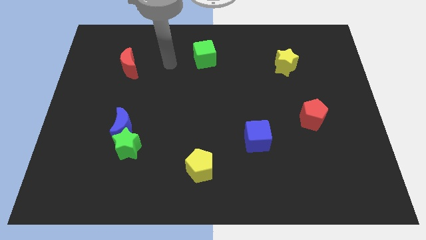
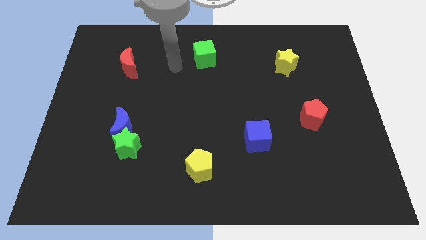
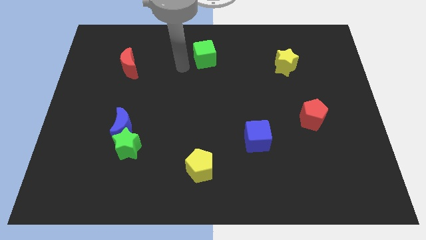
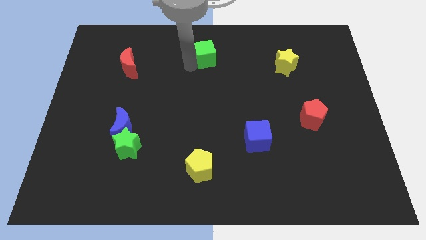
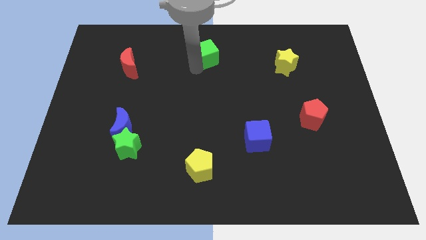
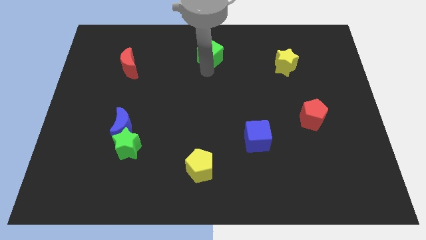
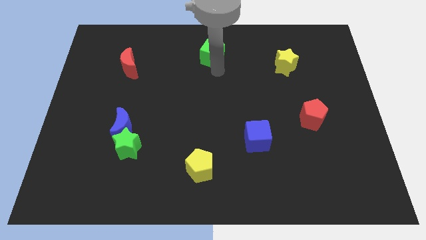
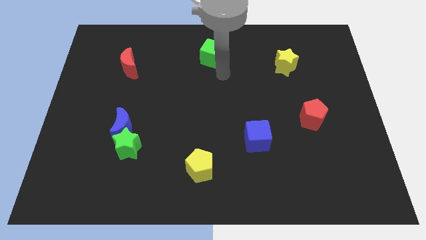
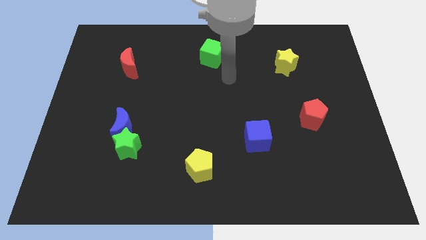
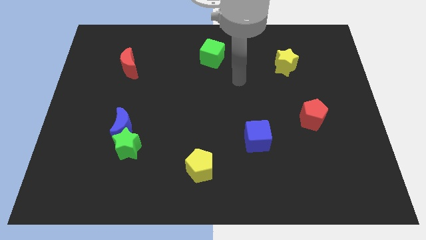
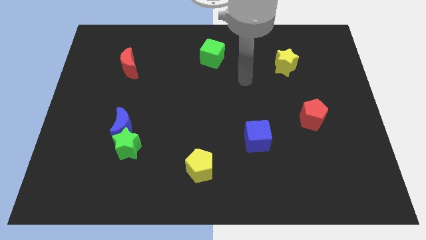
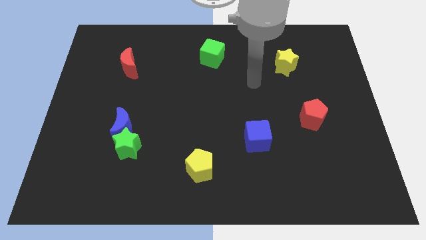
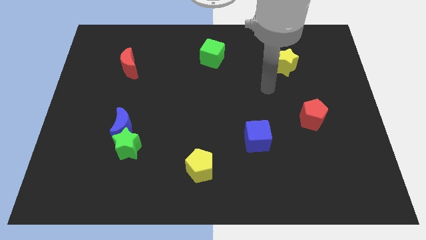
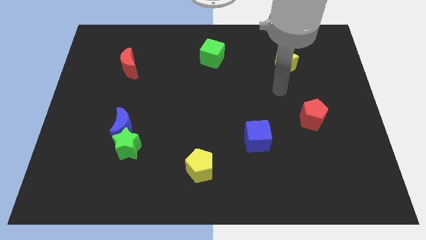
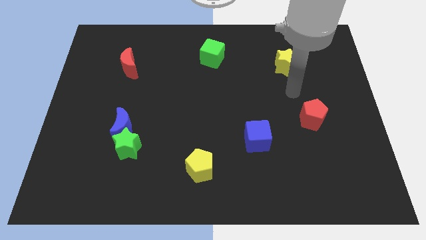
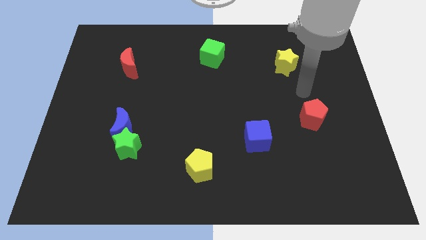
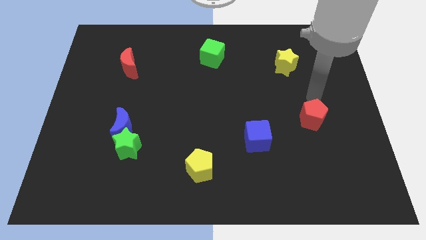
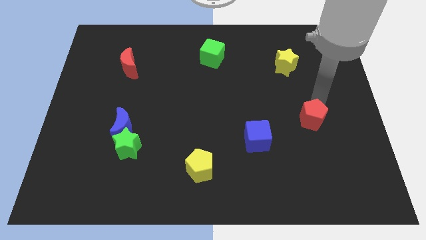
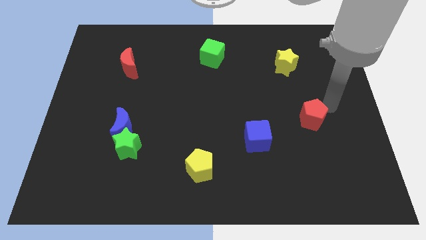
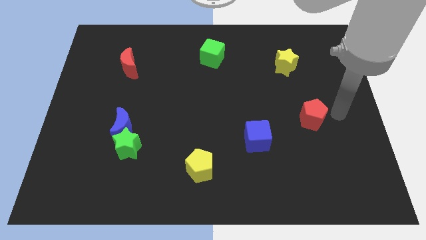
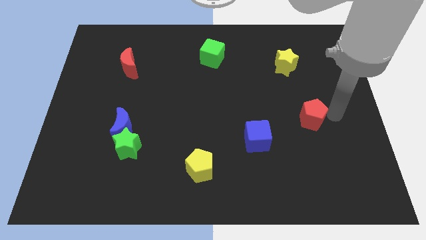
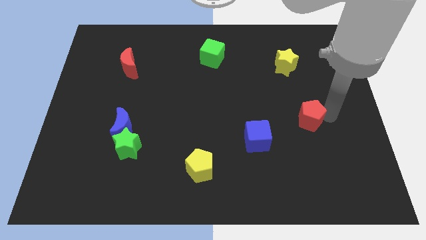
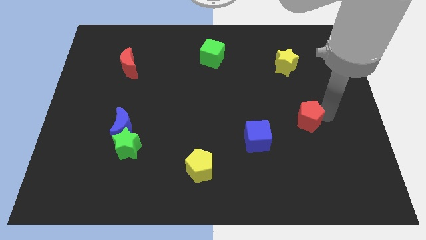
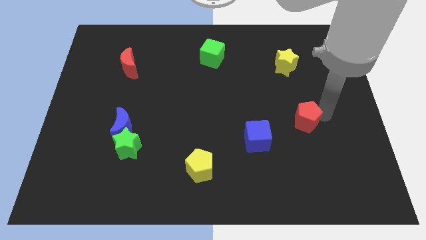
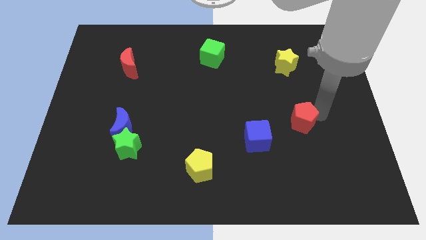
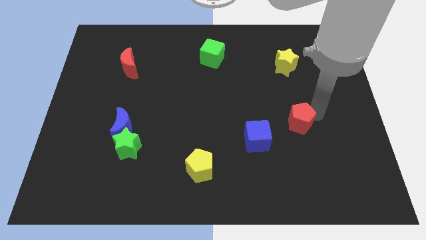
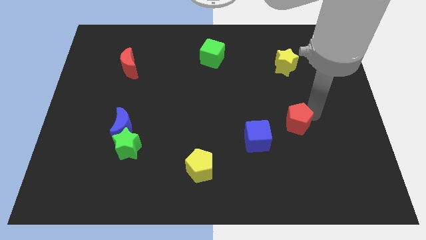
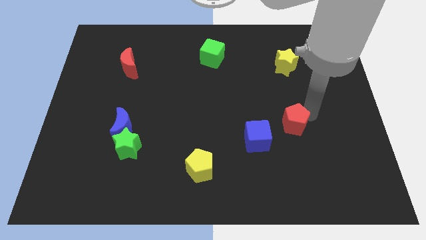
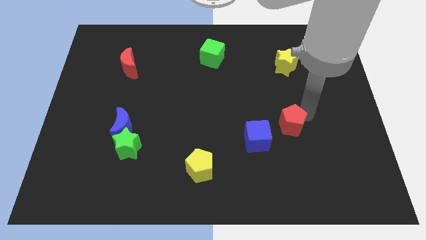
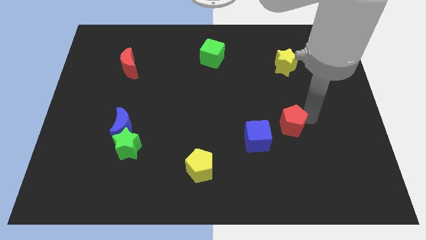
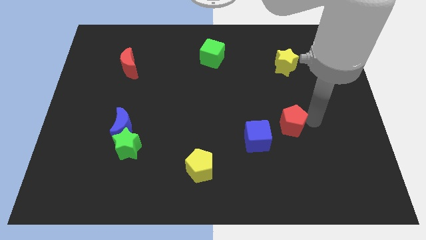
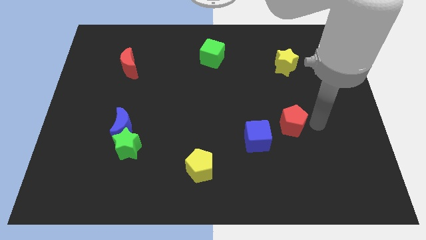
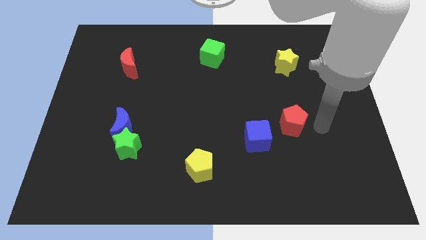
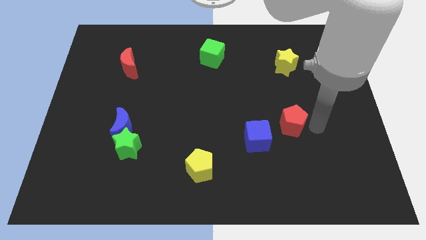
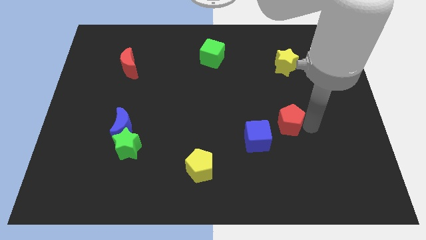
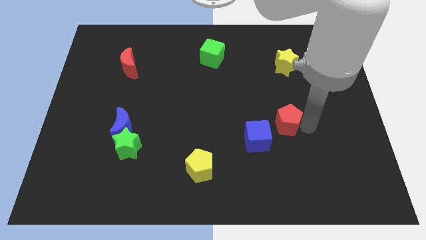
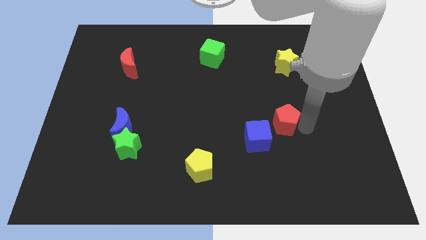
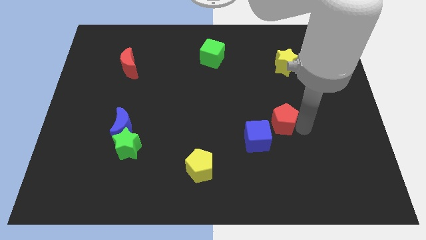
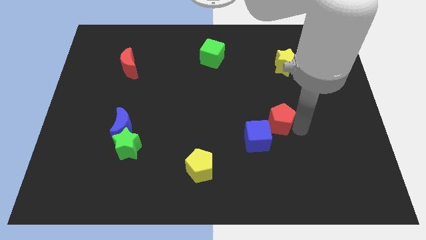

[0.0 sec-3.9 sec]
move the red pentagon slightly left

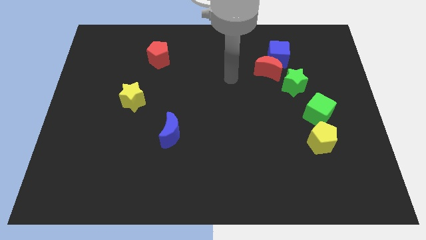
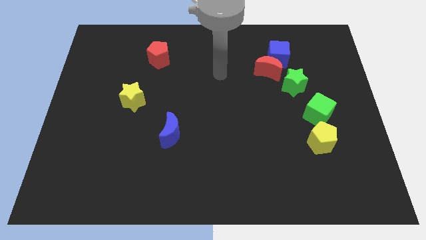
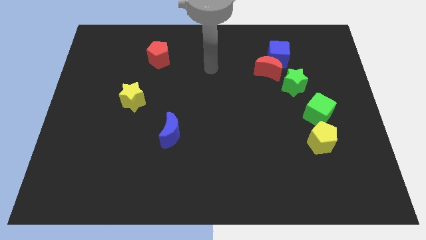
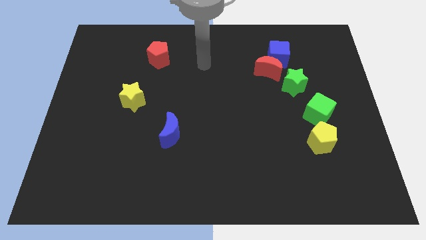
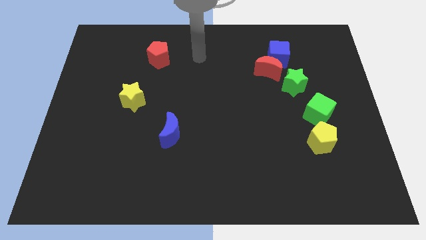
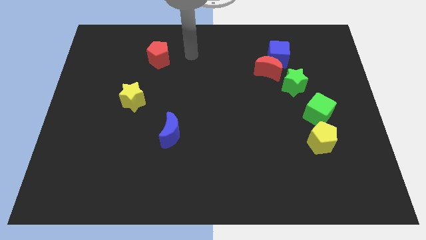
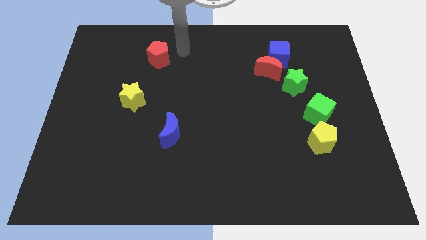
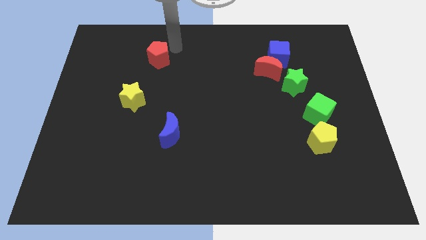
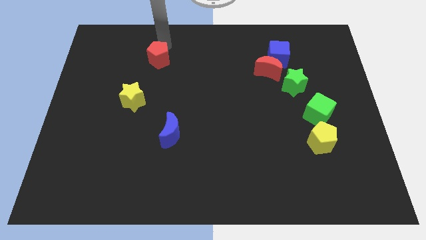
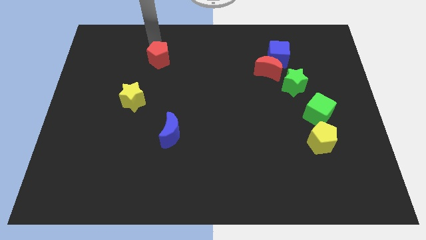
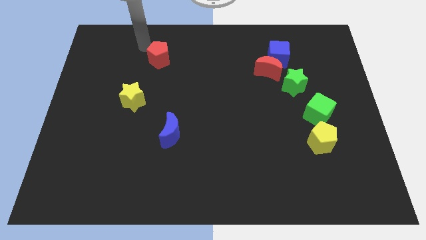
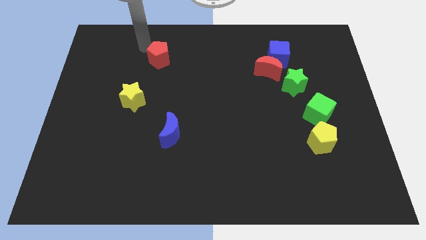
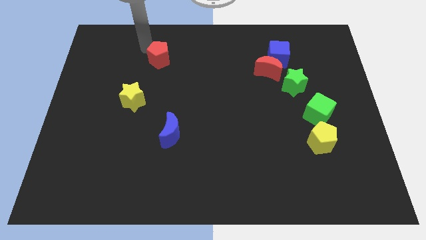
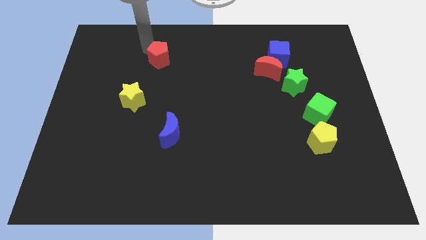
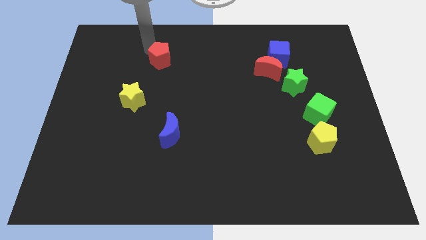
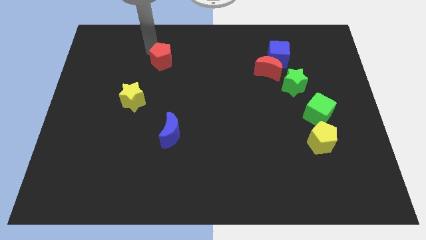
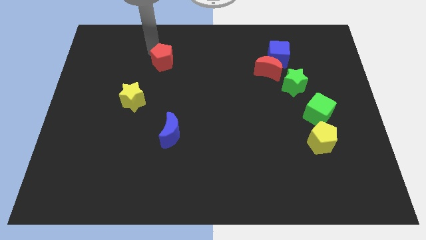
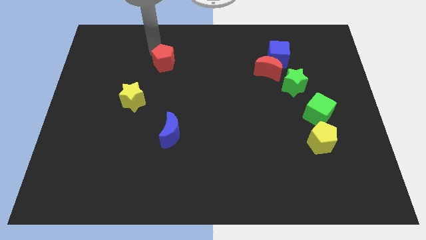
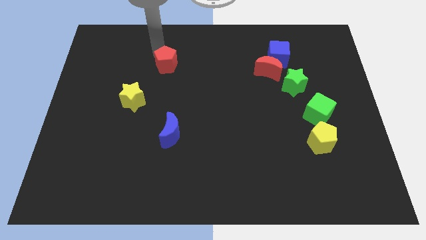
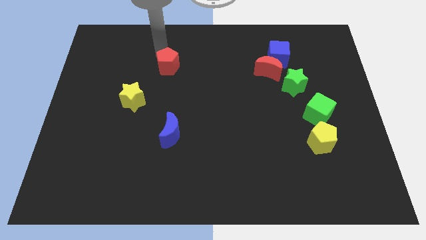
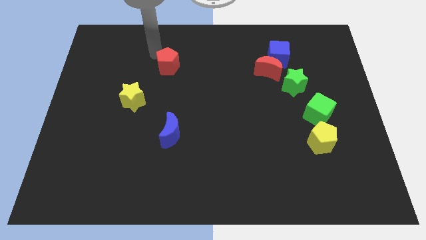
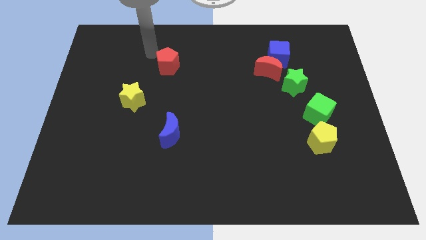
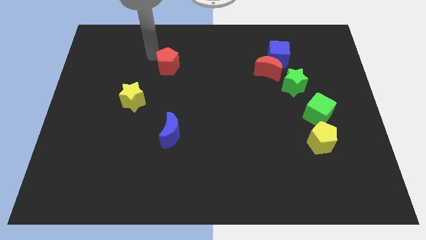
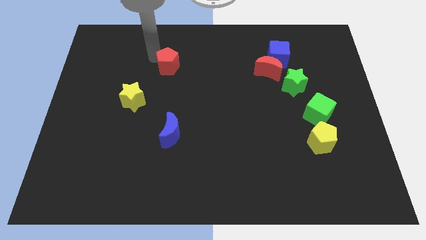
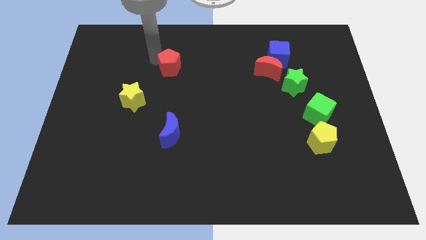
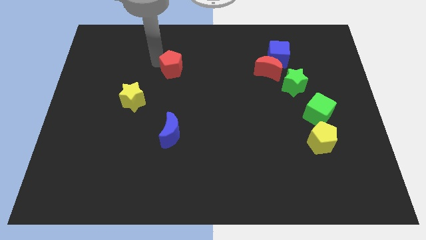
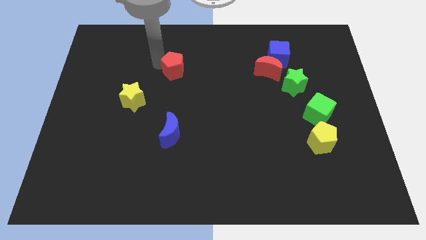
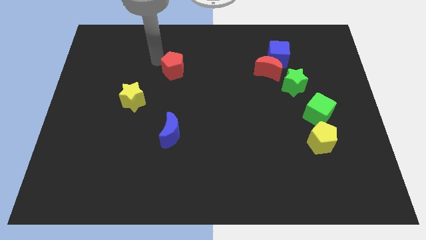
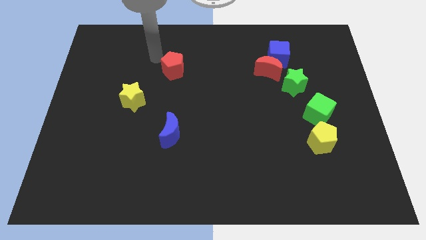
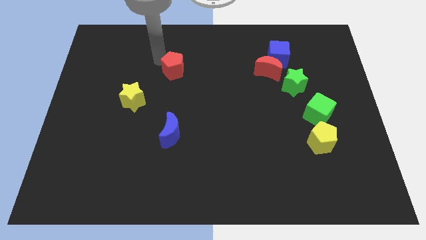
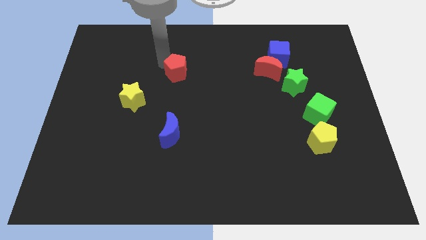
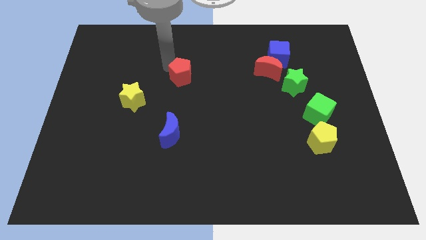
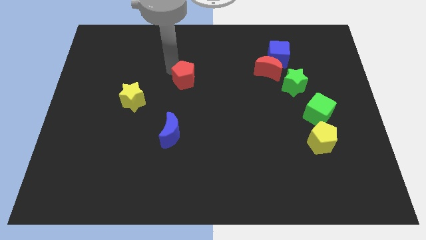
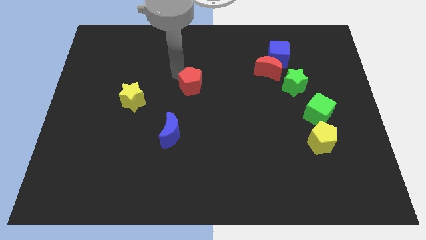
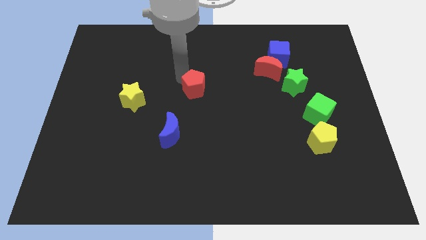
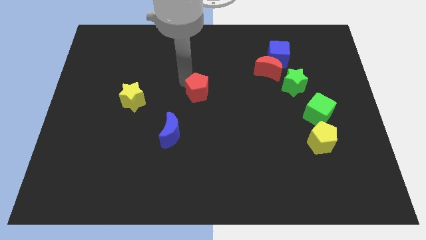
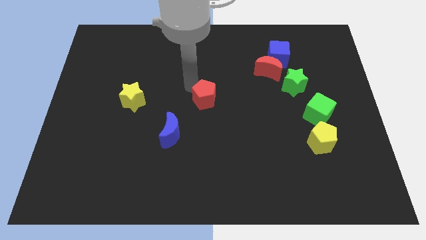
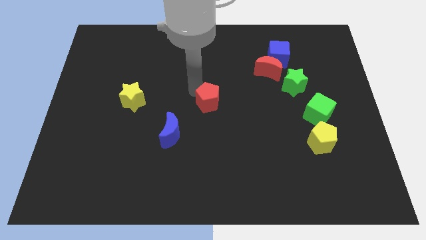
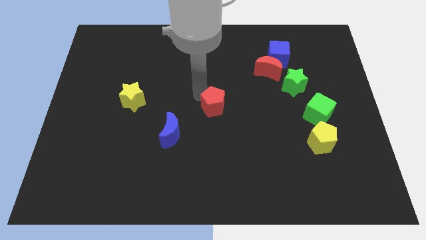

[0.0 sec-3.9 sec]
slide the red pentagon downwards and to the right
